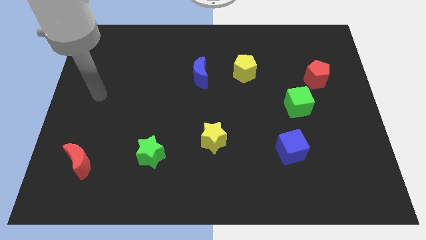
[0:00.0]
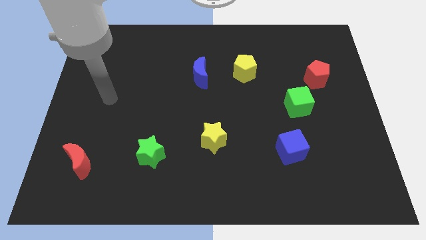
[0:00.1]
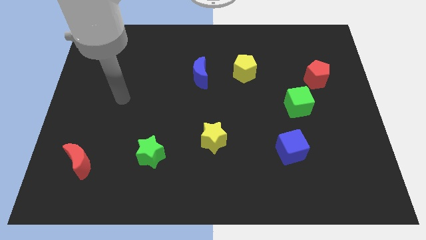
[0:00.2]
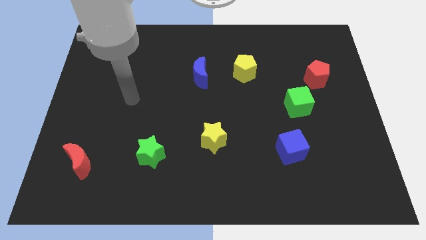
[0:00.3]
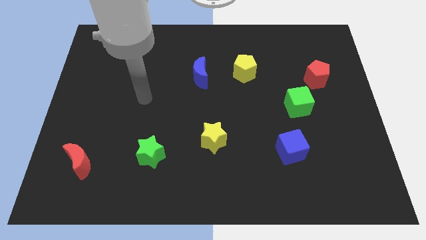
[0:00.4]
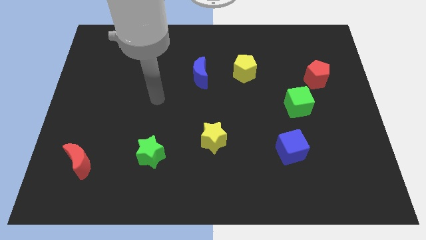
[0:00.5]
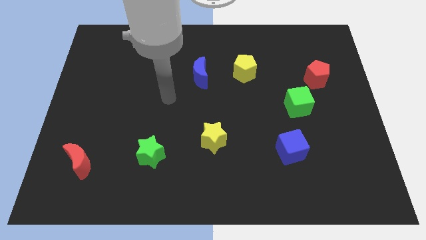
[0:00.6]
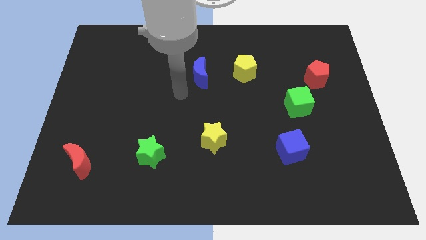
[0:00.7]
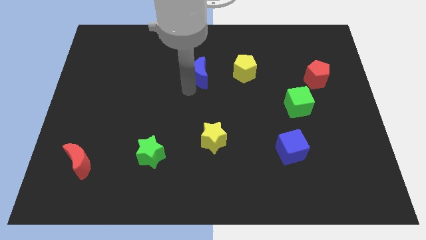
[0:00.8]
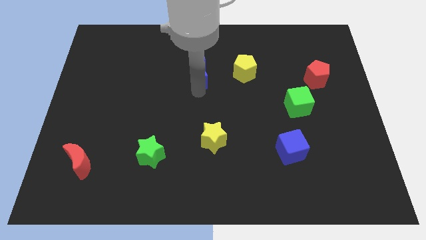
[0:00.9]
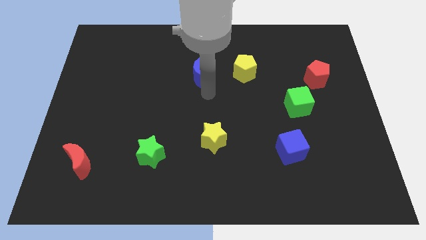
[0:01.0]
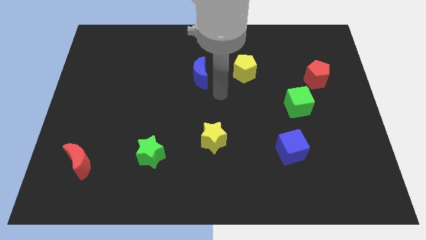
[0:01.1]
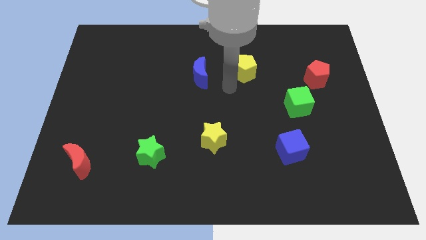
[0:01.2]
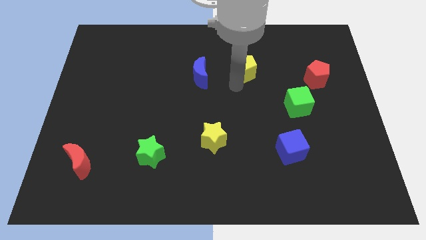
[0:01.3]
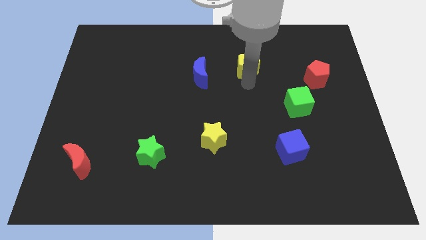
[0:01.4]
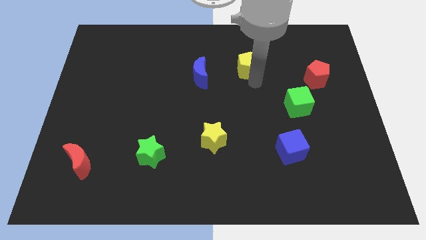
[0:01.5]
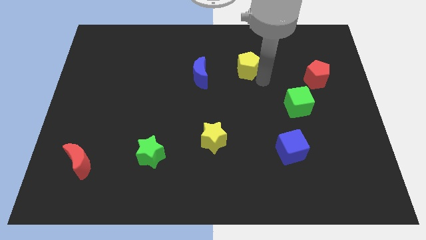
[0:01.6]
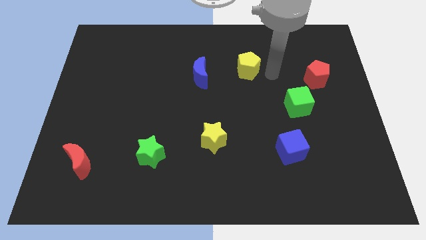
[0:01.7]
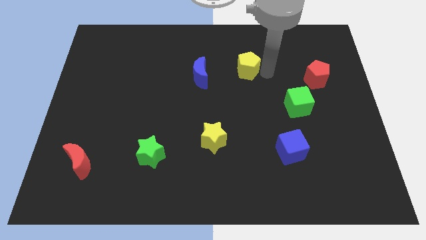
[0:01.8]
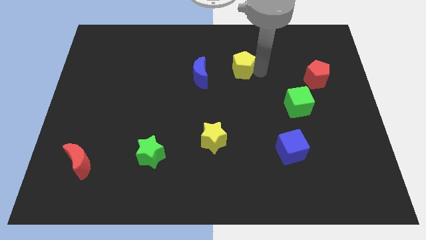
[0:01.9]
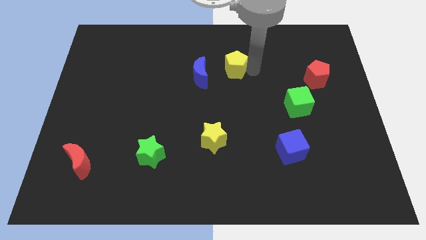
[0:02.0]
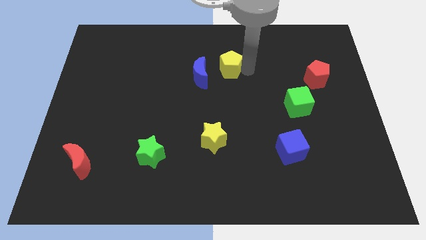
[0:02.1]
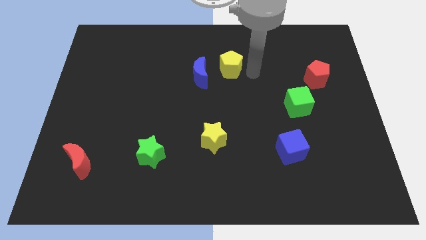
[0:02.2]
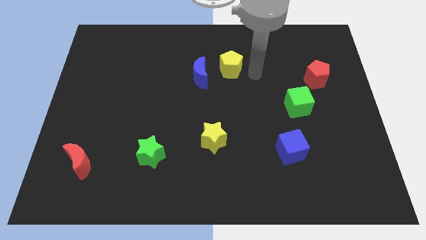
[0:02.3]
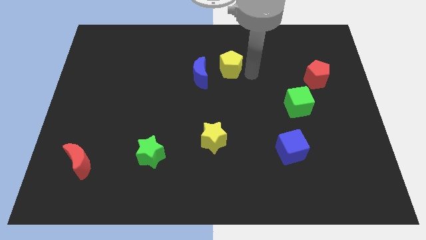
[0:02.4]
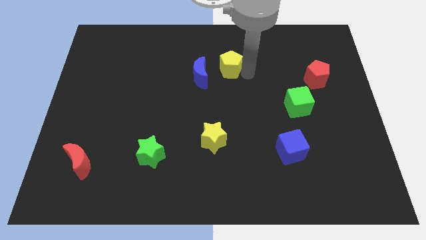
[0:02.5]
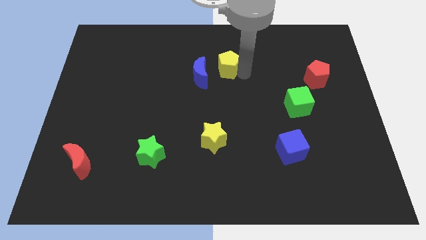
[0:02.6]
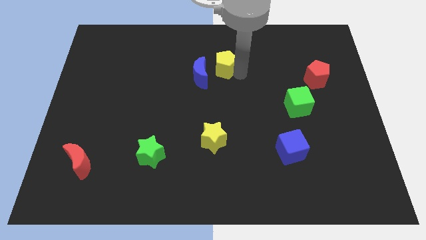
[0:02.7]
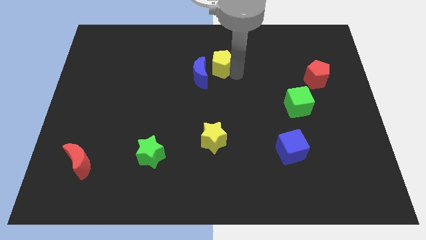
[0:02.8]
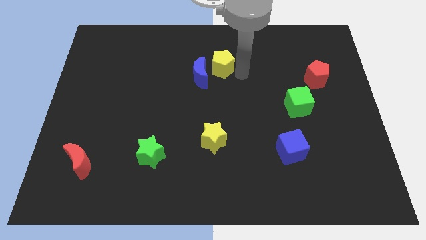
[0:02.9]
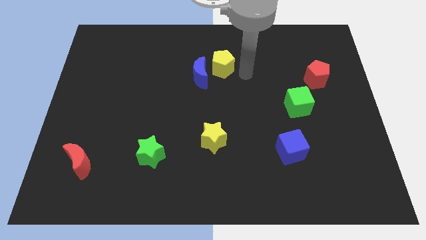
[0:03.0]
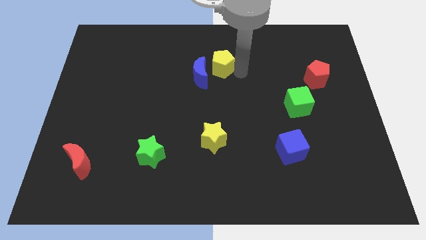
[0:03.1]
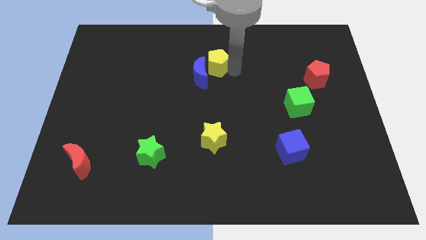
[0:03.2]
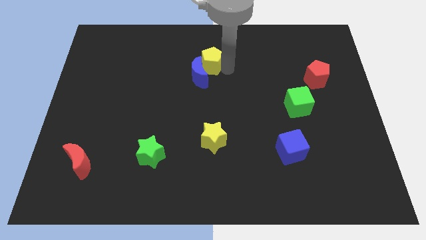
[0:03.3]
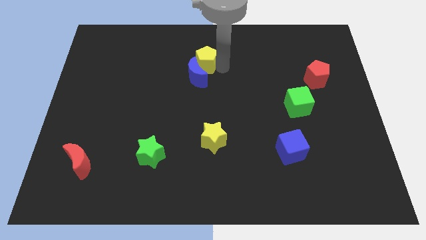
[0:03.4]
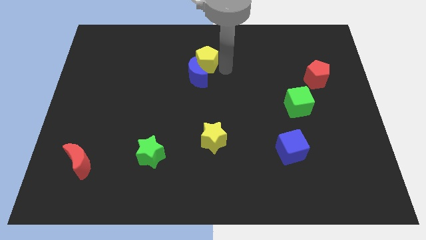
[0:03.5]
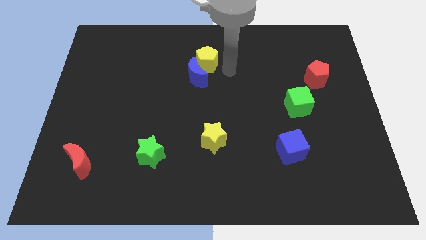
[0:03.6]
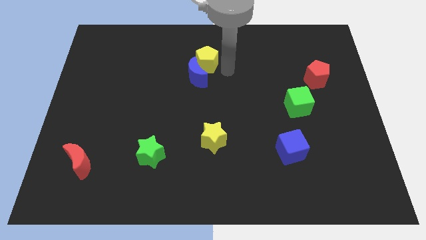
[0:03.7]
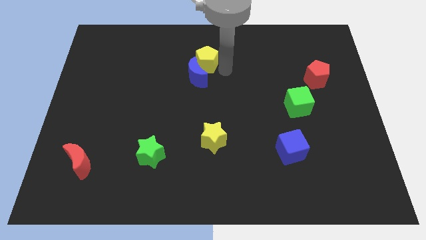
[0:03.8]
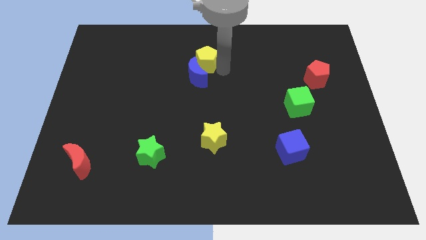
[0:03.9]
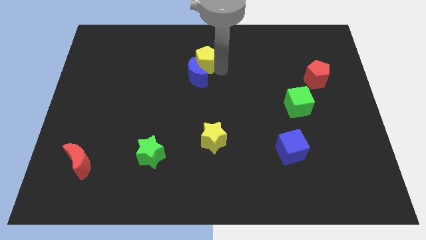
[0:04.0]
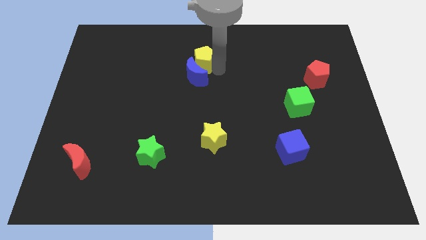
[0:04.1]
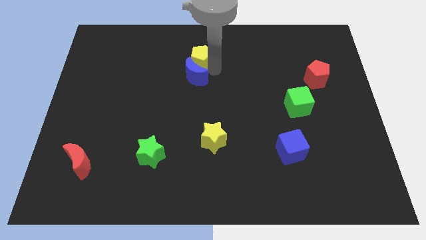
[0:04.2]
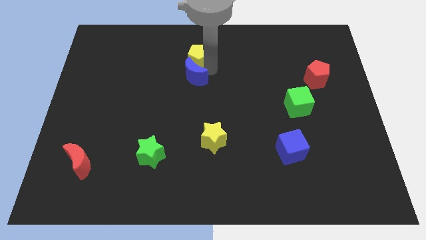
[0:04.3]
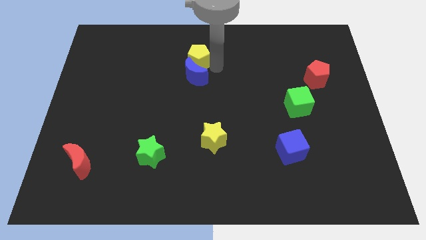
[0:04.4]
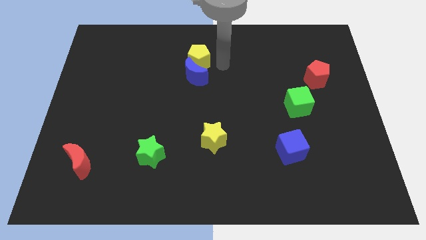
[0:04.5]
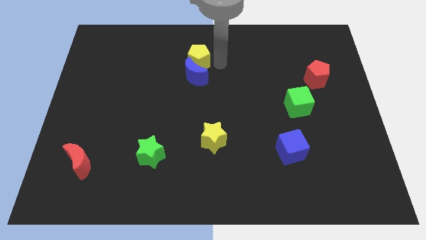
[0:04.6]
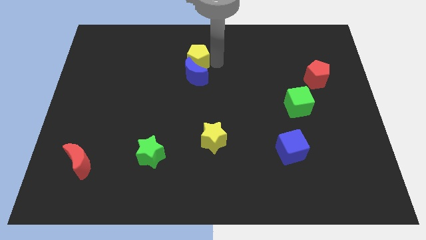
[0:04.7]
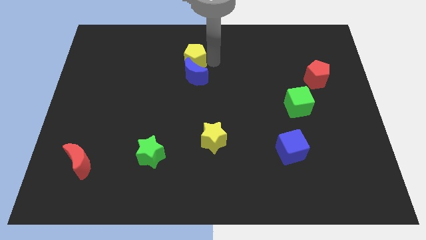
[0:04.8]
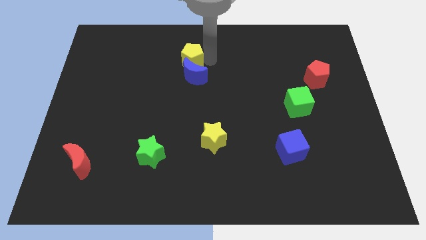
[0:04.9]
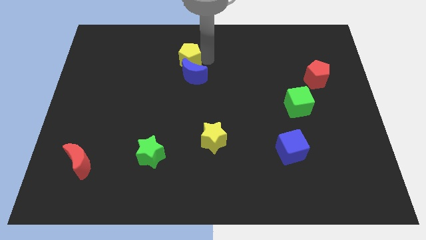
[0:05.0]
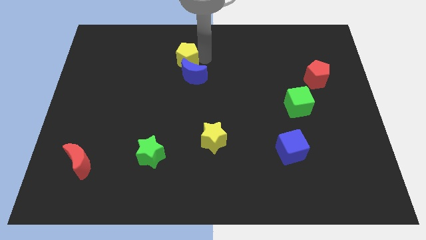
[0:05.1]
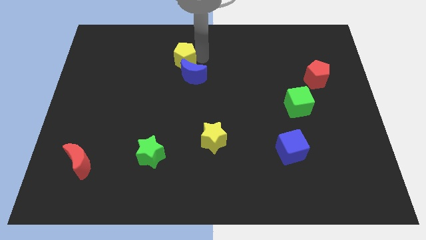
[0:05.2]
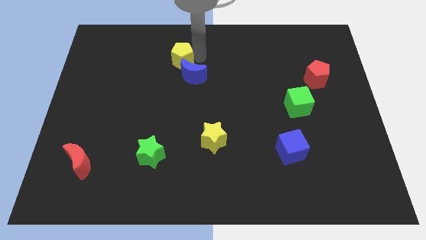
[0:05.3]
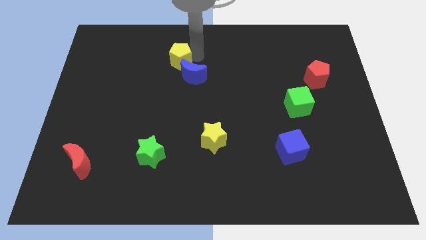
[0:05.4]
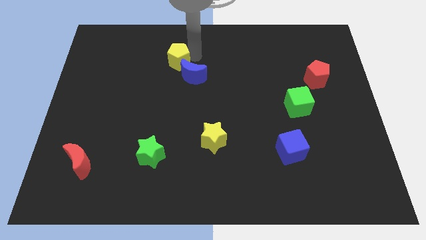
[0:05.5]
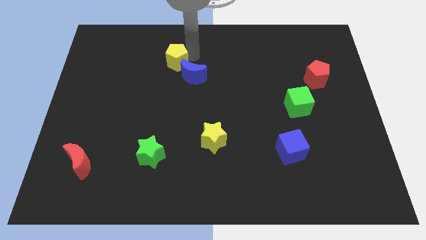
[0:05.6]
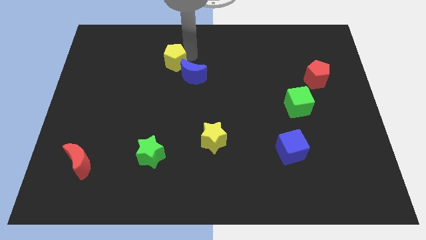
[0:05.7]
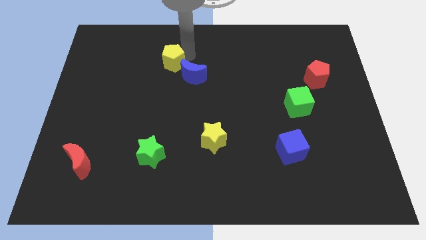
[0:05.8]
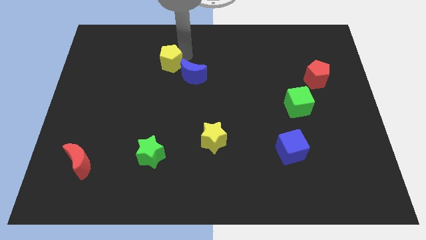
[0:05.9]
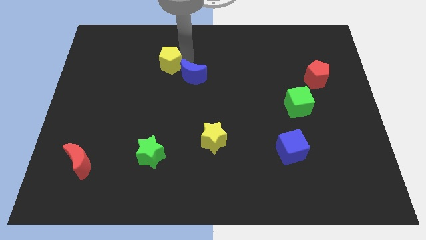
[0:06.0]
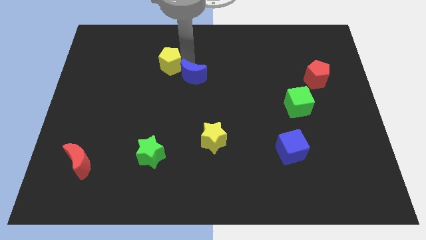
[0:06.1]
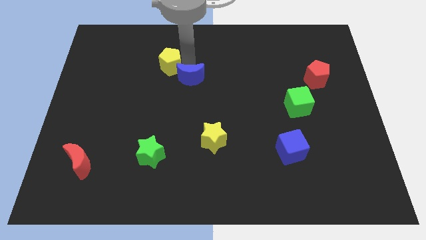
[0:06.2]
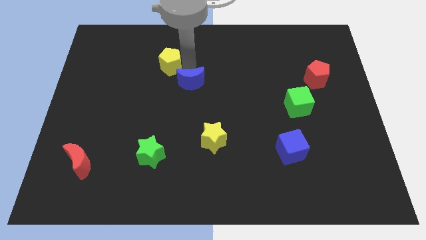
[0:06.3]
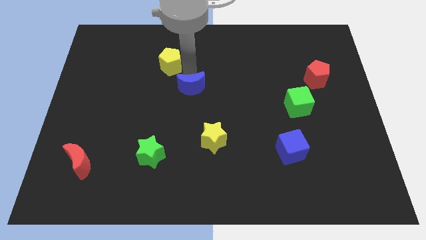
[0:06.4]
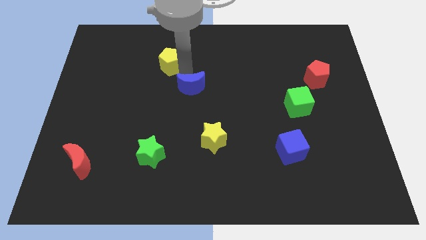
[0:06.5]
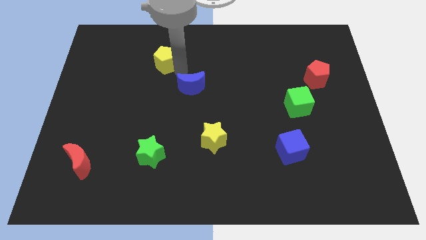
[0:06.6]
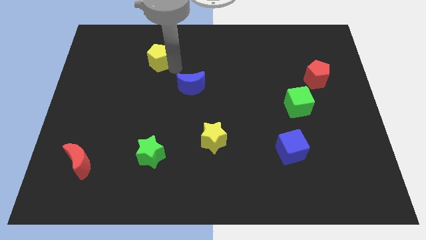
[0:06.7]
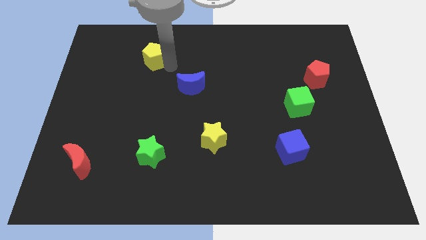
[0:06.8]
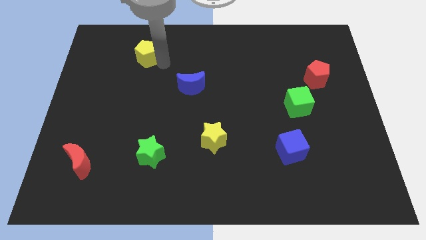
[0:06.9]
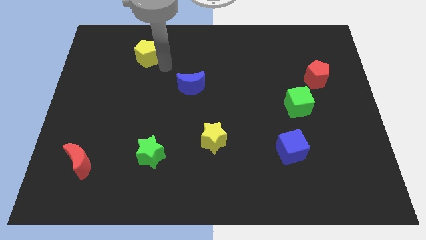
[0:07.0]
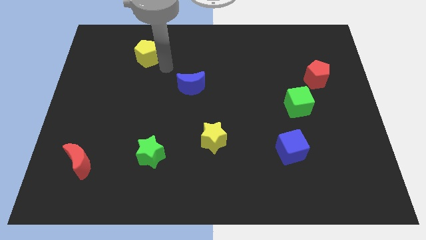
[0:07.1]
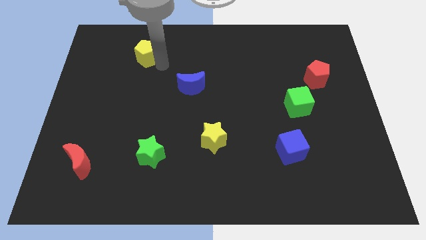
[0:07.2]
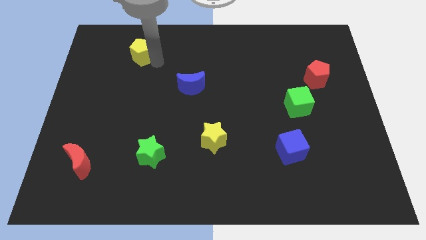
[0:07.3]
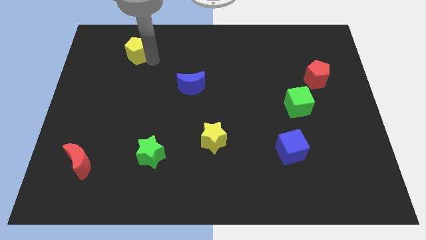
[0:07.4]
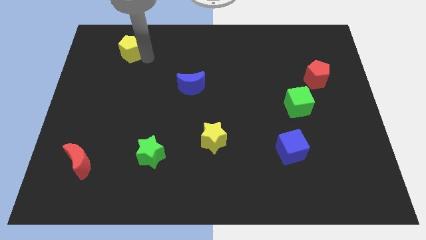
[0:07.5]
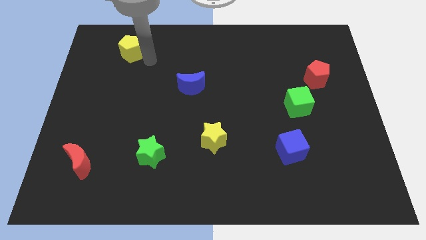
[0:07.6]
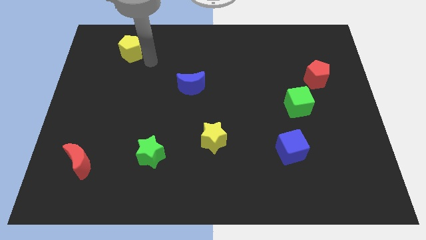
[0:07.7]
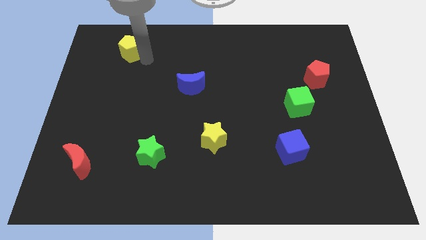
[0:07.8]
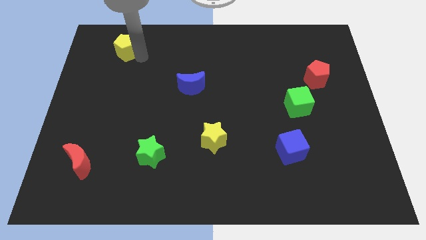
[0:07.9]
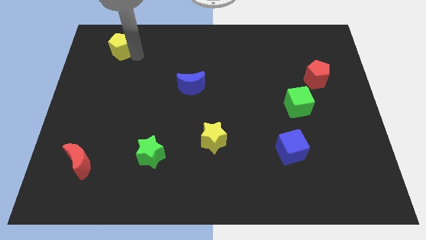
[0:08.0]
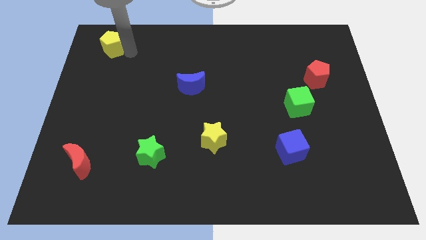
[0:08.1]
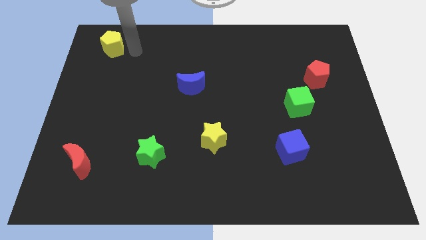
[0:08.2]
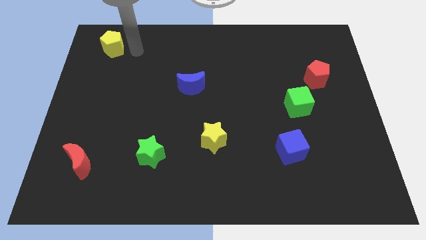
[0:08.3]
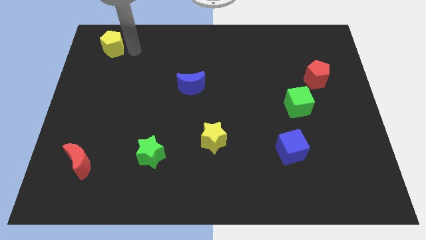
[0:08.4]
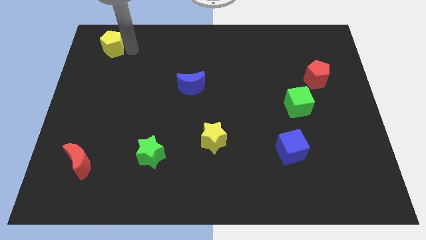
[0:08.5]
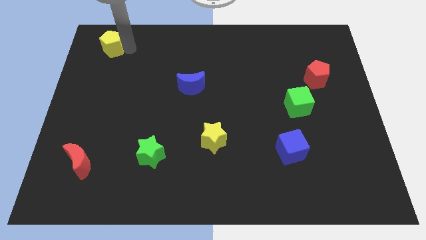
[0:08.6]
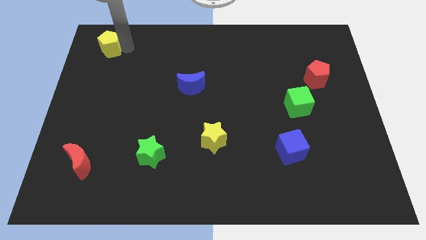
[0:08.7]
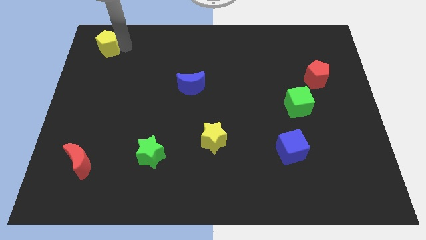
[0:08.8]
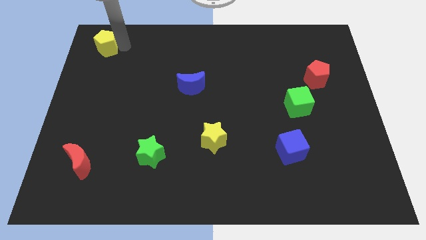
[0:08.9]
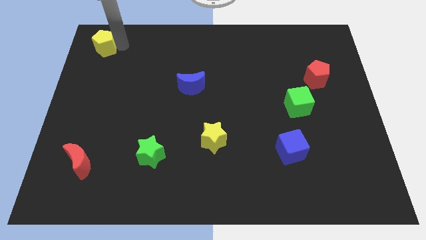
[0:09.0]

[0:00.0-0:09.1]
push the yellow pentagon to the upper left corner
